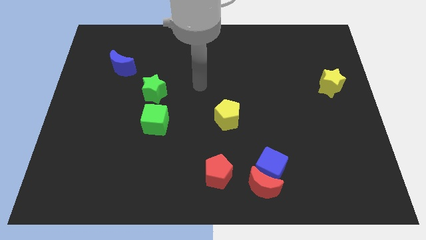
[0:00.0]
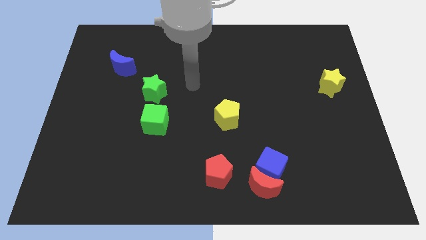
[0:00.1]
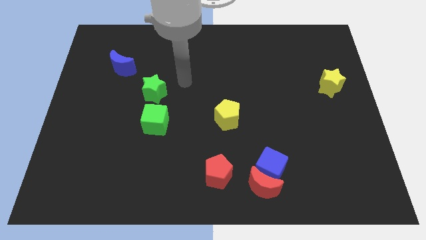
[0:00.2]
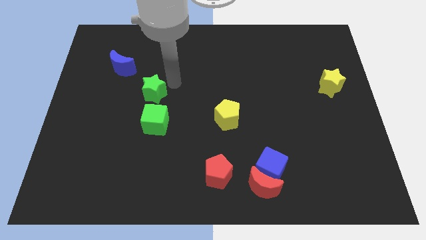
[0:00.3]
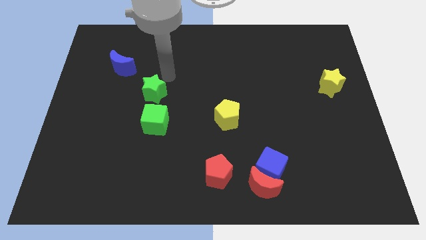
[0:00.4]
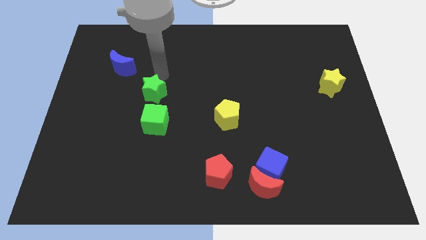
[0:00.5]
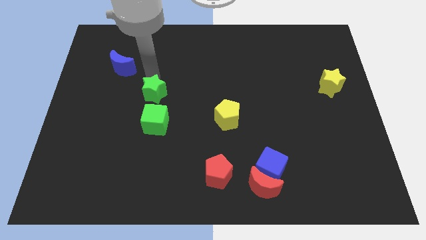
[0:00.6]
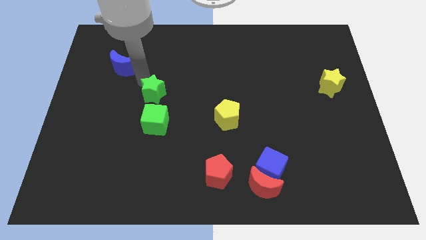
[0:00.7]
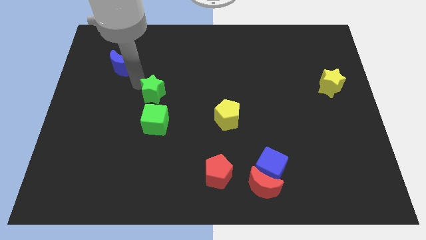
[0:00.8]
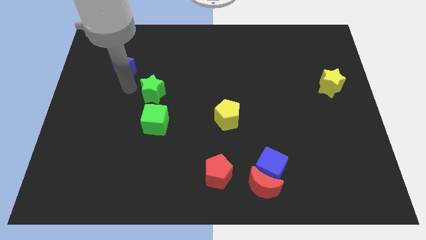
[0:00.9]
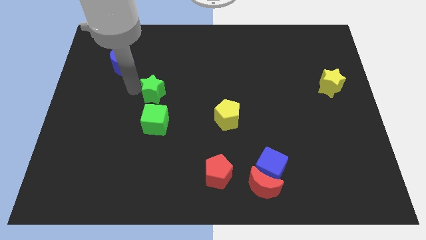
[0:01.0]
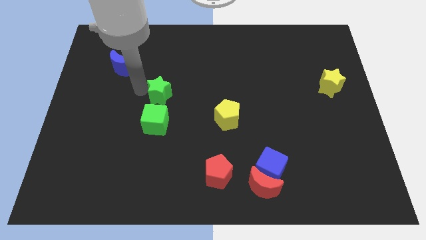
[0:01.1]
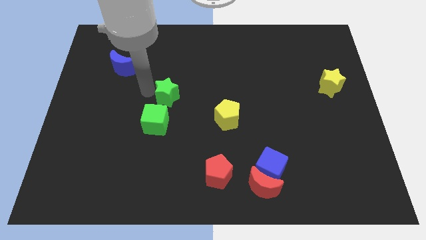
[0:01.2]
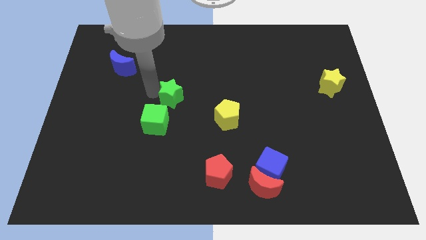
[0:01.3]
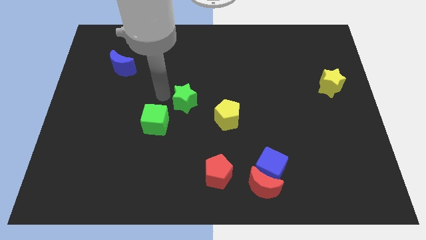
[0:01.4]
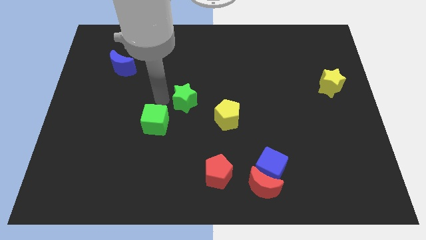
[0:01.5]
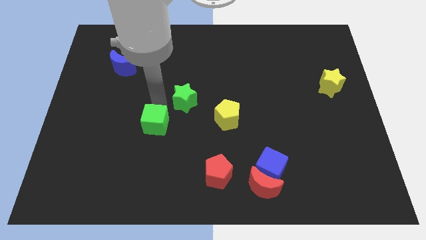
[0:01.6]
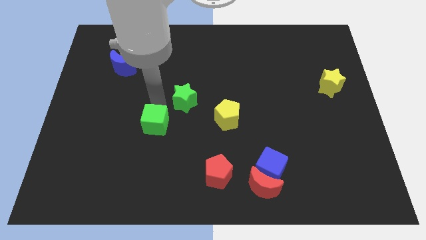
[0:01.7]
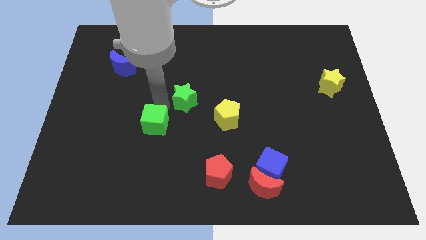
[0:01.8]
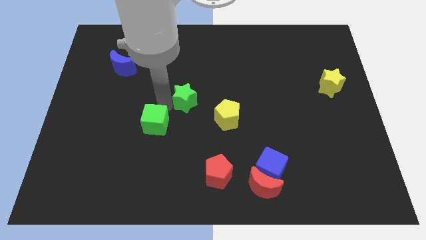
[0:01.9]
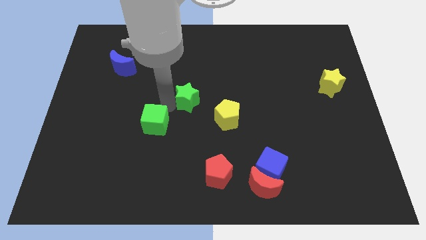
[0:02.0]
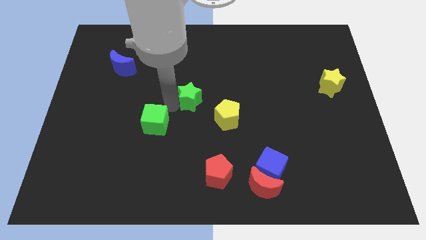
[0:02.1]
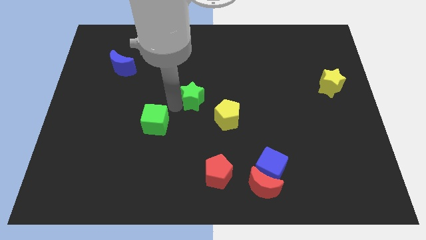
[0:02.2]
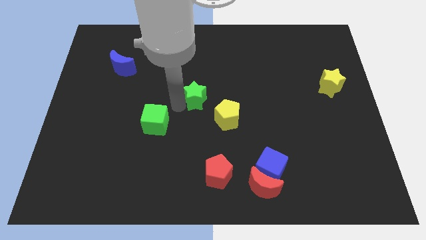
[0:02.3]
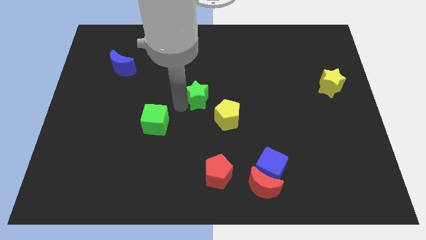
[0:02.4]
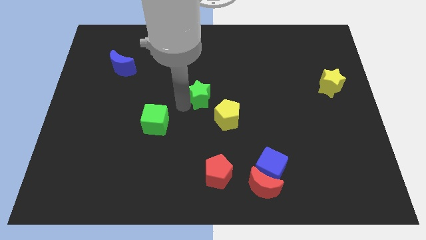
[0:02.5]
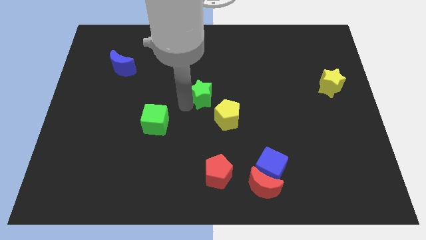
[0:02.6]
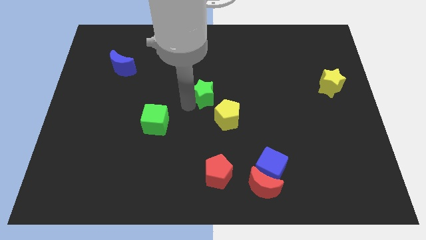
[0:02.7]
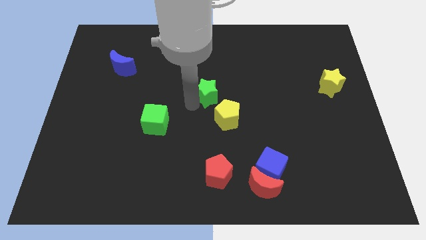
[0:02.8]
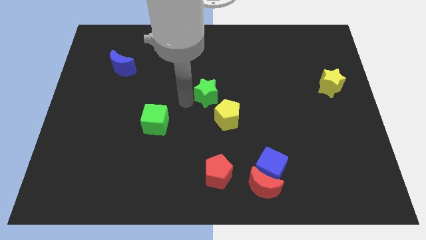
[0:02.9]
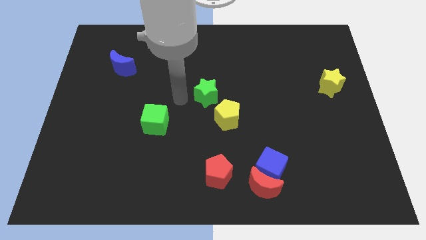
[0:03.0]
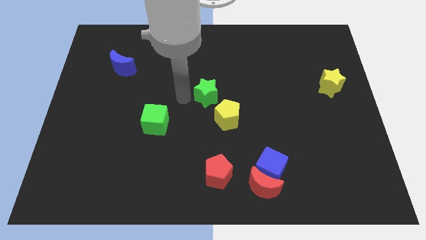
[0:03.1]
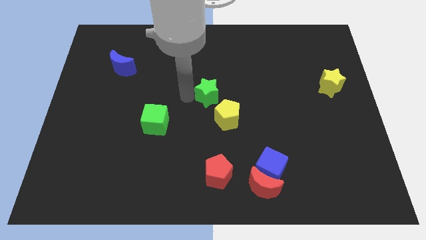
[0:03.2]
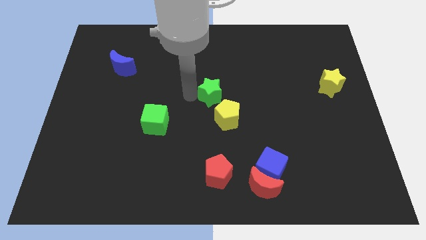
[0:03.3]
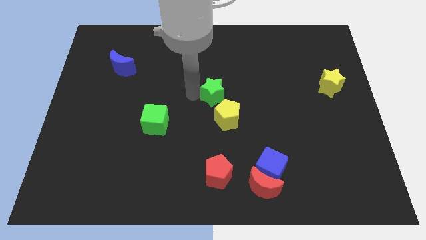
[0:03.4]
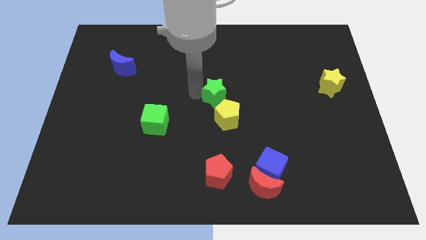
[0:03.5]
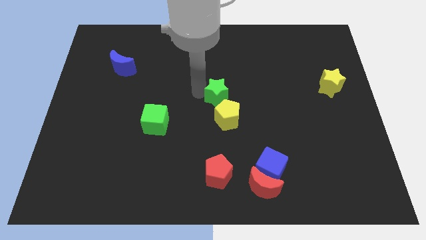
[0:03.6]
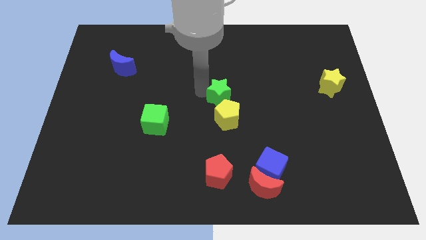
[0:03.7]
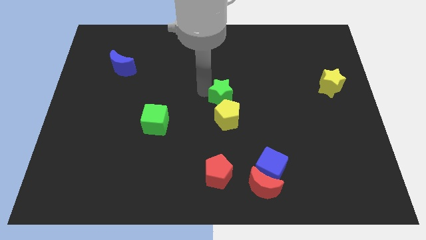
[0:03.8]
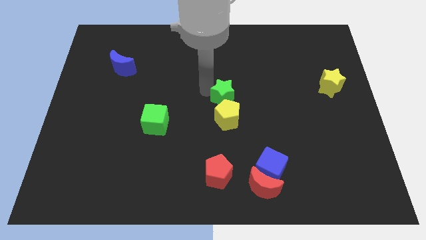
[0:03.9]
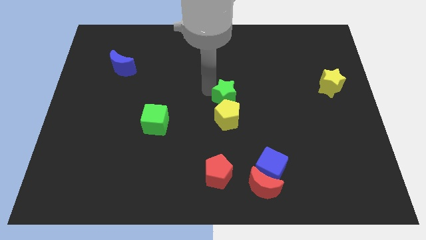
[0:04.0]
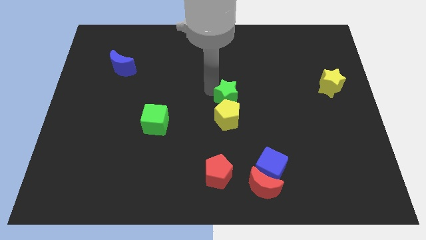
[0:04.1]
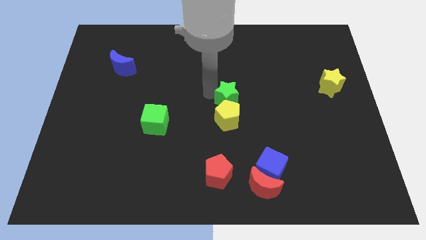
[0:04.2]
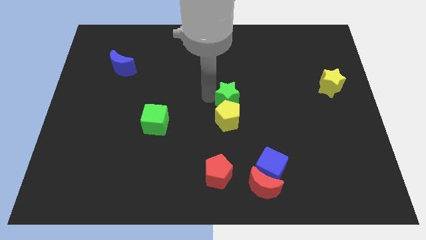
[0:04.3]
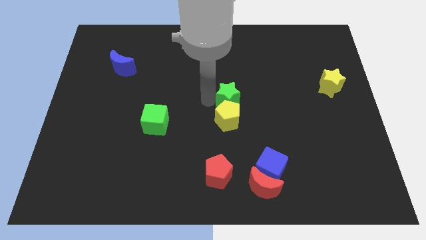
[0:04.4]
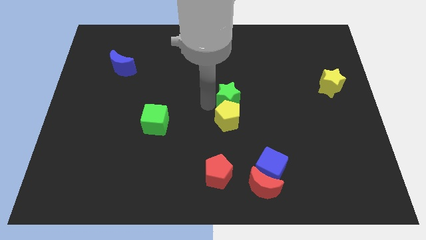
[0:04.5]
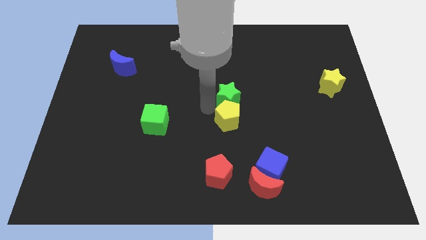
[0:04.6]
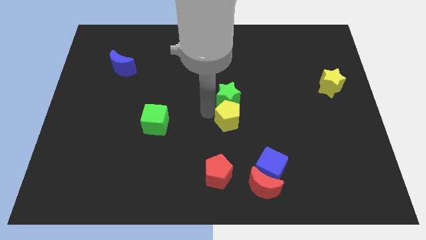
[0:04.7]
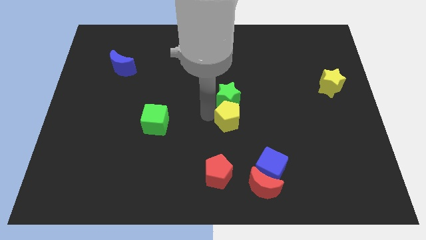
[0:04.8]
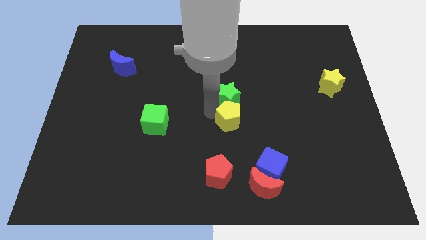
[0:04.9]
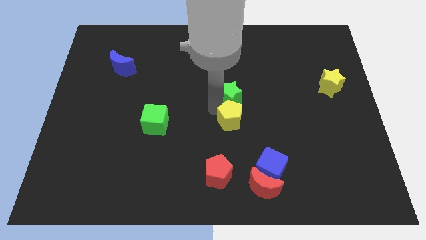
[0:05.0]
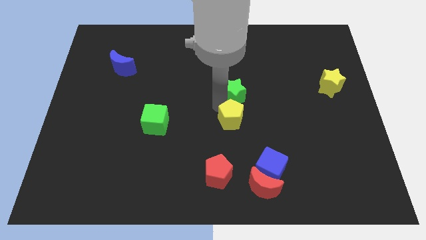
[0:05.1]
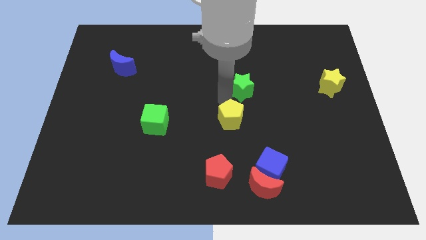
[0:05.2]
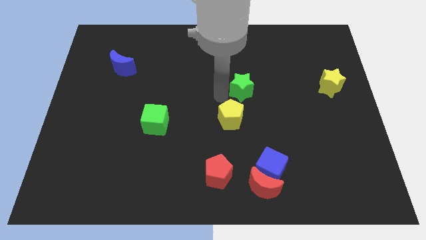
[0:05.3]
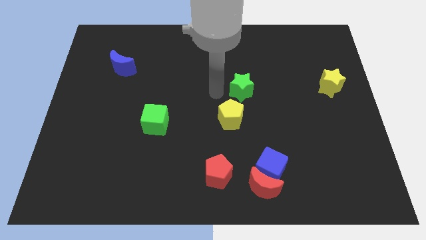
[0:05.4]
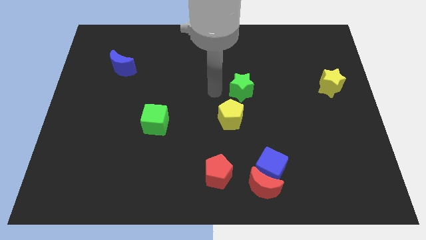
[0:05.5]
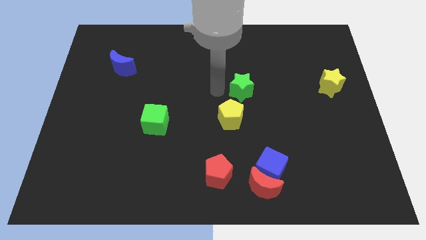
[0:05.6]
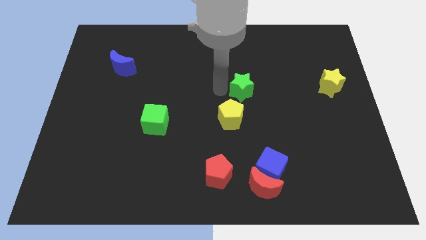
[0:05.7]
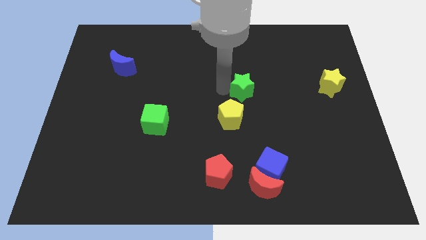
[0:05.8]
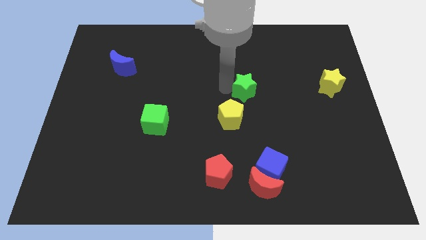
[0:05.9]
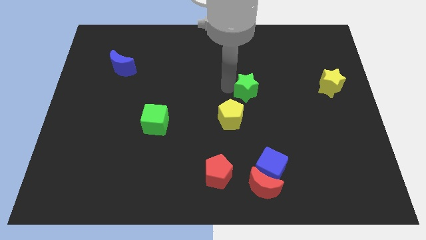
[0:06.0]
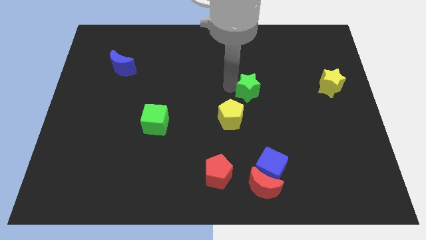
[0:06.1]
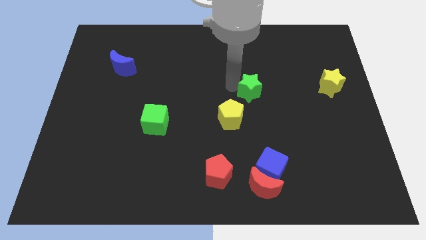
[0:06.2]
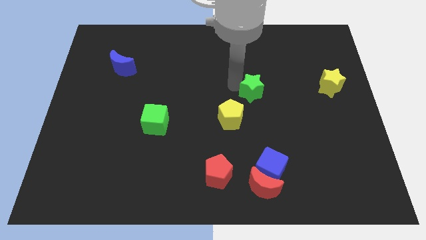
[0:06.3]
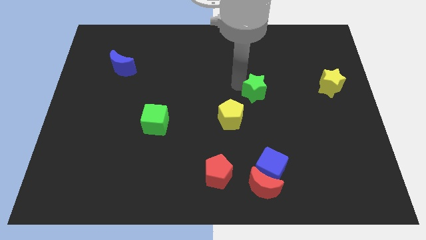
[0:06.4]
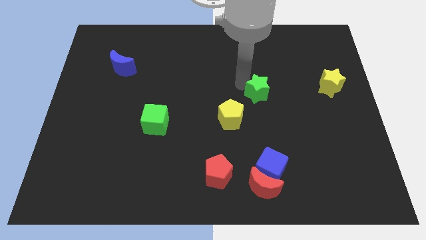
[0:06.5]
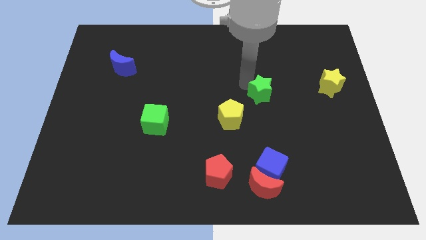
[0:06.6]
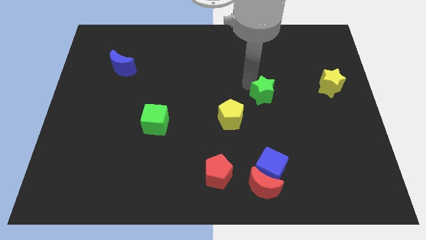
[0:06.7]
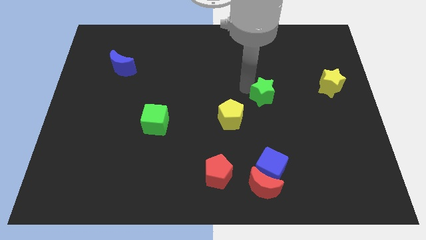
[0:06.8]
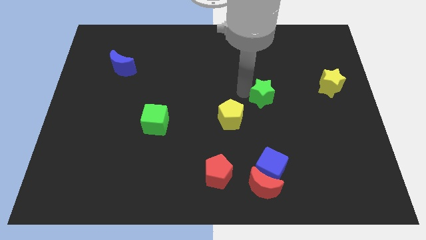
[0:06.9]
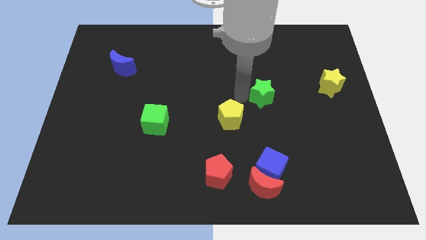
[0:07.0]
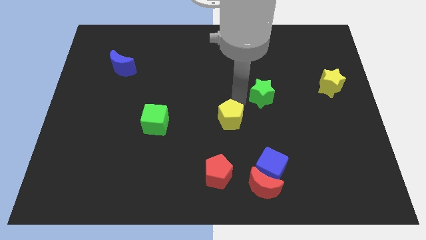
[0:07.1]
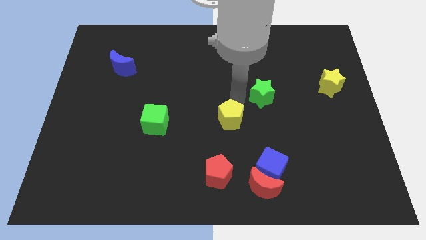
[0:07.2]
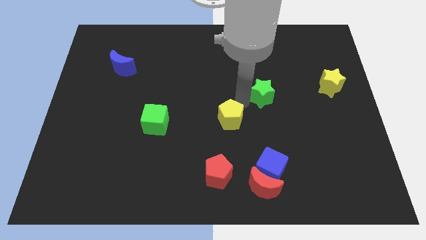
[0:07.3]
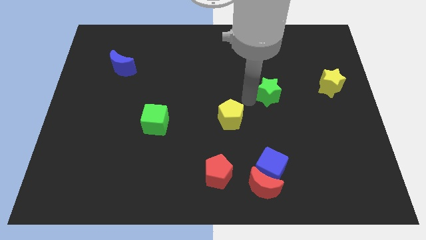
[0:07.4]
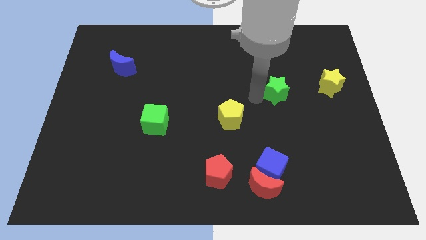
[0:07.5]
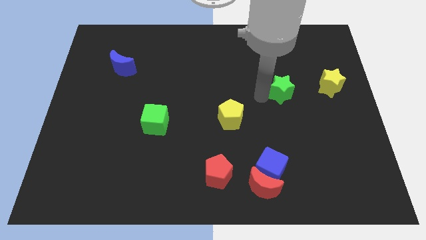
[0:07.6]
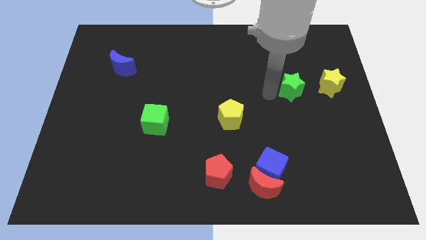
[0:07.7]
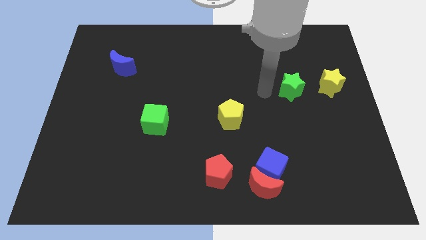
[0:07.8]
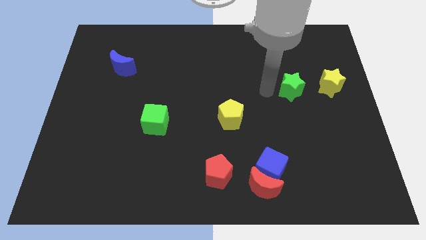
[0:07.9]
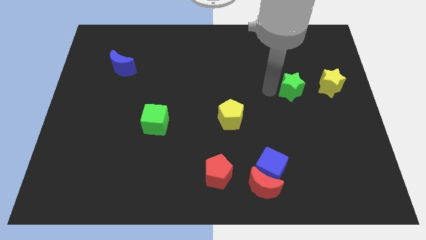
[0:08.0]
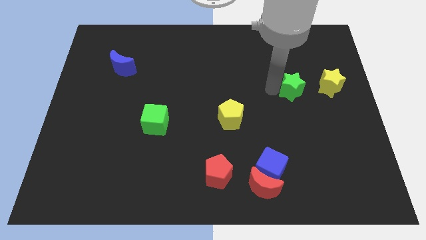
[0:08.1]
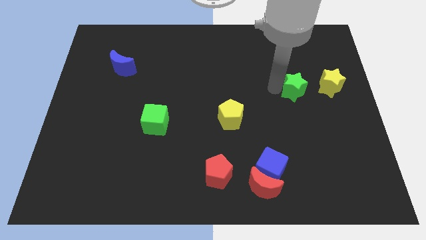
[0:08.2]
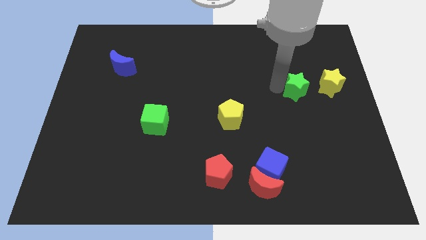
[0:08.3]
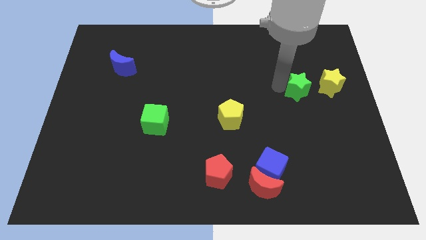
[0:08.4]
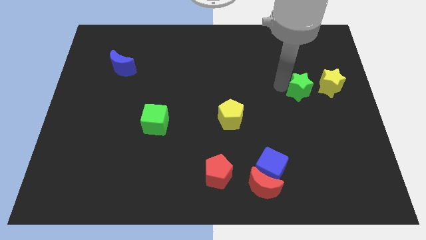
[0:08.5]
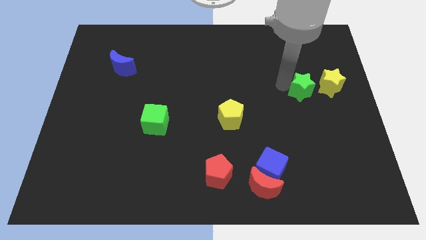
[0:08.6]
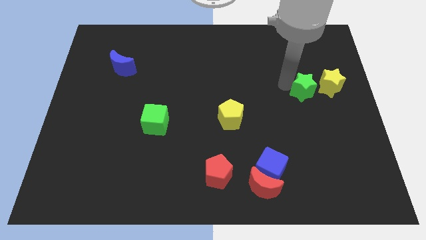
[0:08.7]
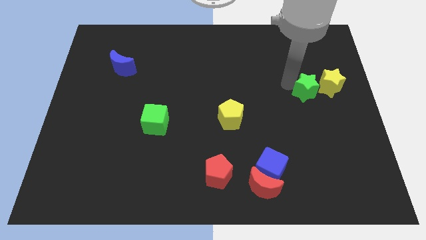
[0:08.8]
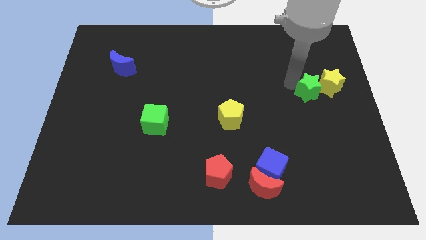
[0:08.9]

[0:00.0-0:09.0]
slide the green star towards the yellow star
